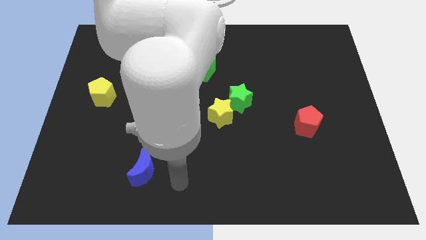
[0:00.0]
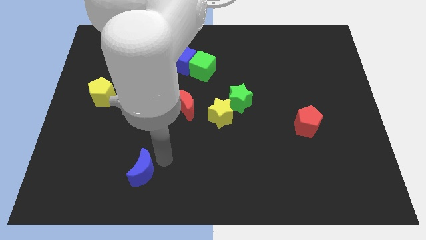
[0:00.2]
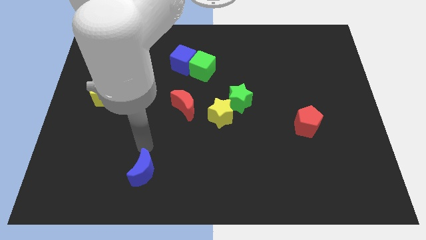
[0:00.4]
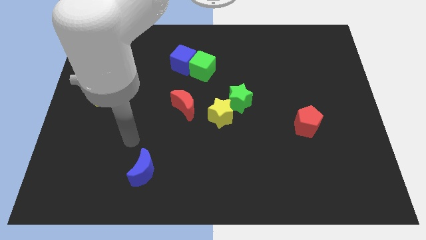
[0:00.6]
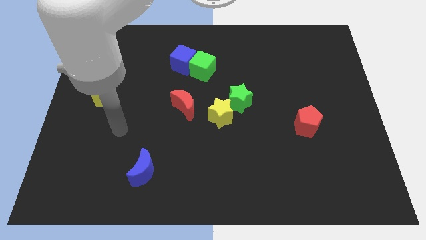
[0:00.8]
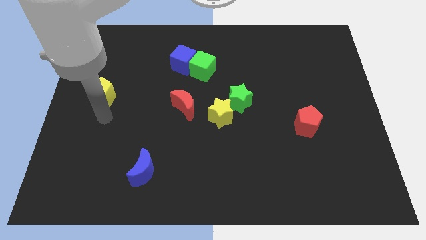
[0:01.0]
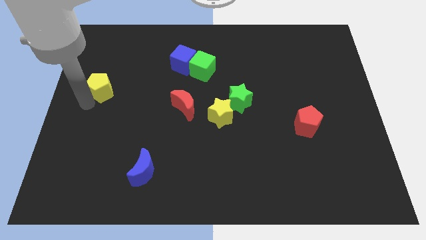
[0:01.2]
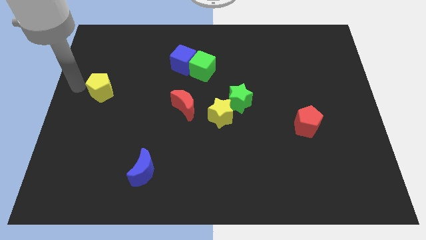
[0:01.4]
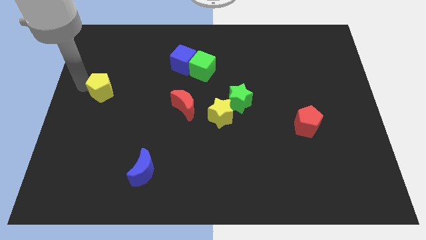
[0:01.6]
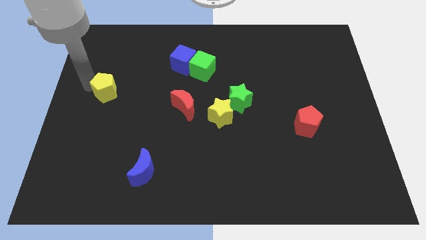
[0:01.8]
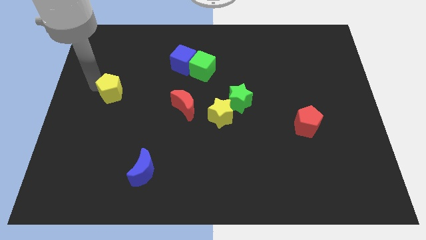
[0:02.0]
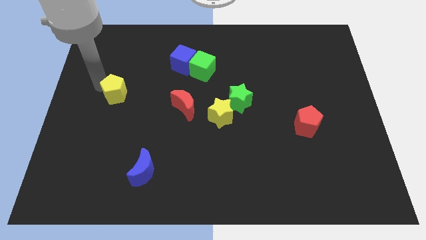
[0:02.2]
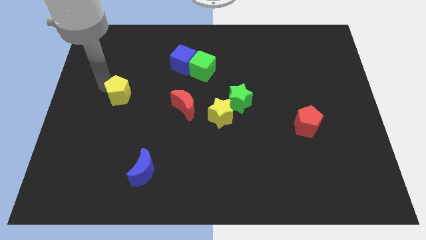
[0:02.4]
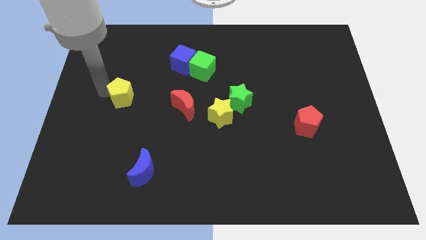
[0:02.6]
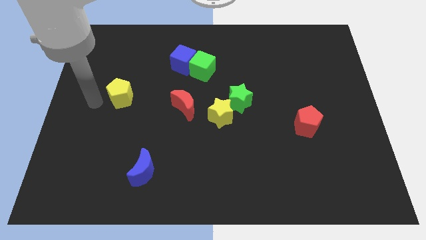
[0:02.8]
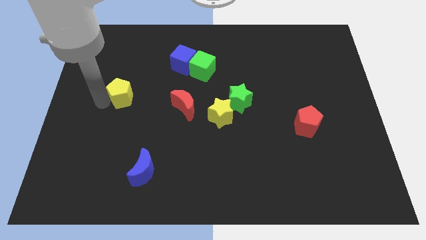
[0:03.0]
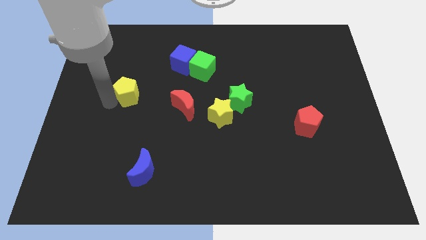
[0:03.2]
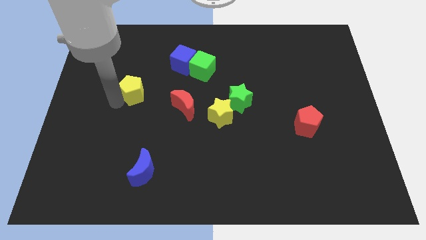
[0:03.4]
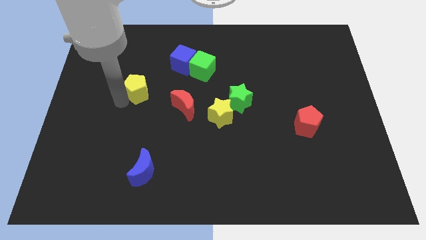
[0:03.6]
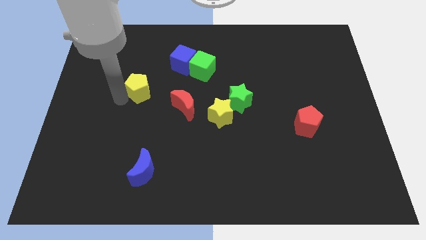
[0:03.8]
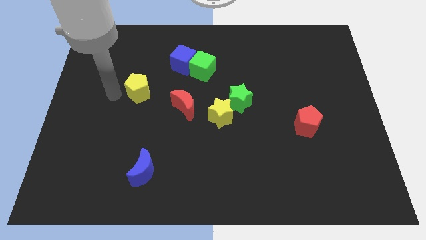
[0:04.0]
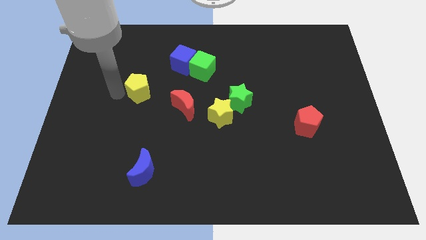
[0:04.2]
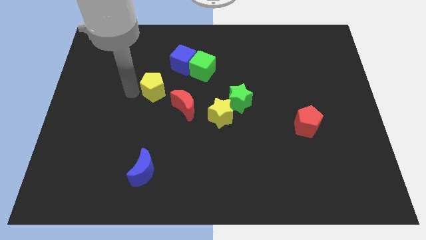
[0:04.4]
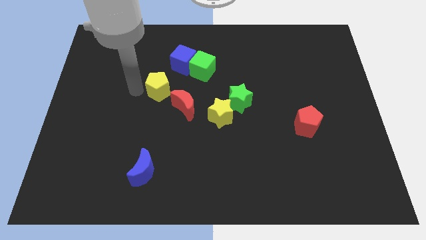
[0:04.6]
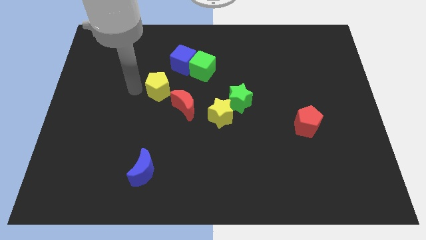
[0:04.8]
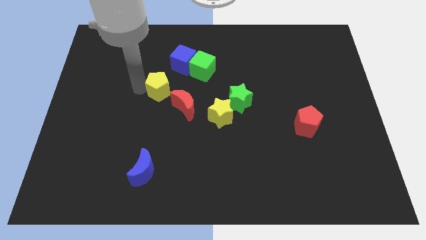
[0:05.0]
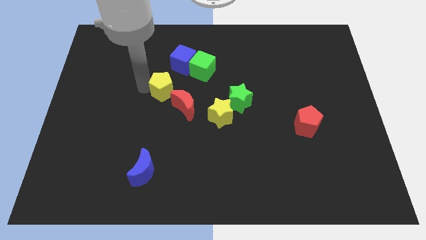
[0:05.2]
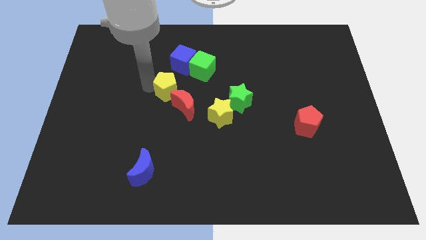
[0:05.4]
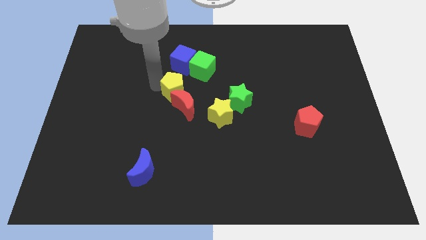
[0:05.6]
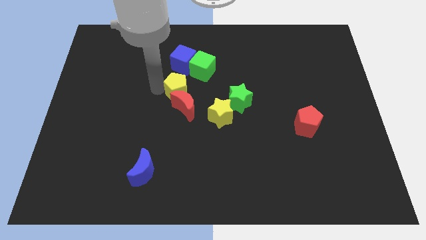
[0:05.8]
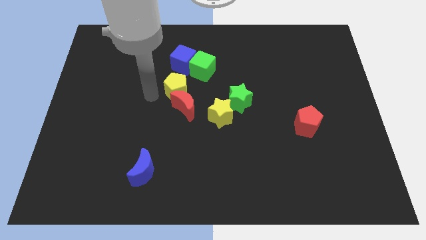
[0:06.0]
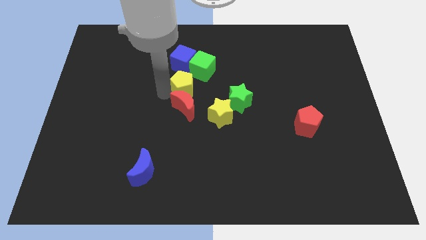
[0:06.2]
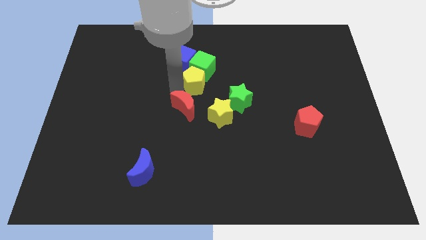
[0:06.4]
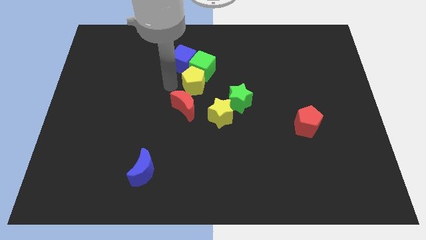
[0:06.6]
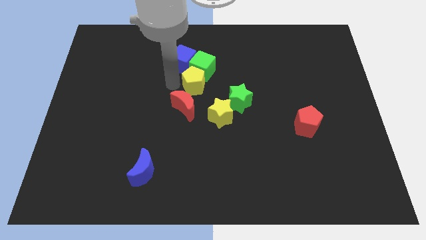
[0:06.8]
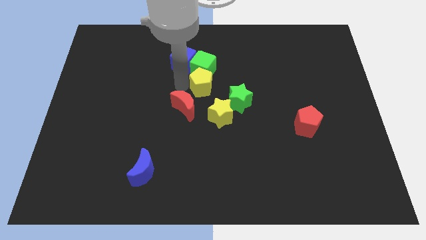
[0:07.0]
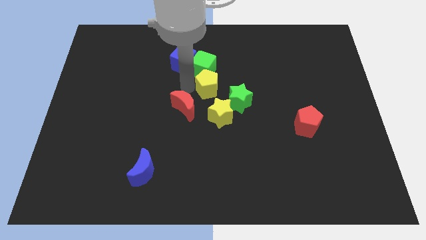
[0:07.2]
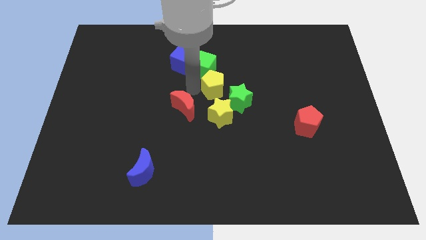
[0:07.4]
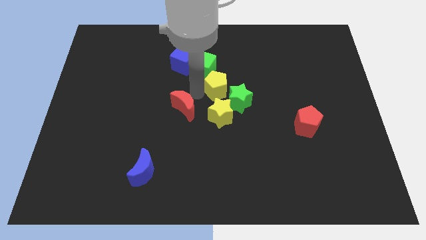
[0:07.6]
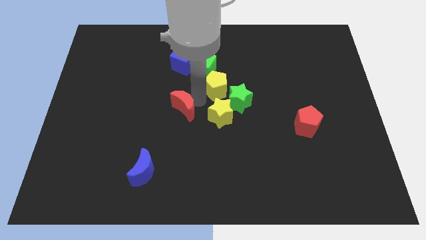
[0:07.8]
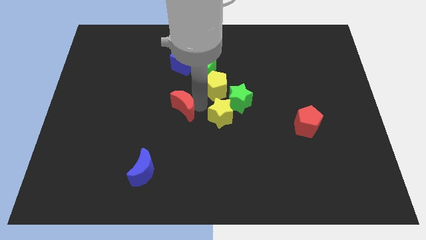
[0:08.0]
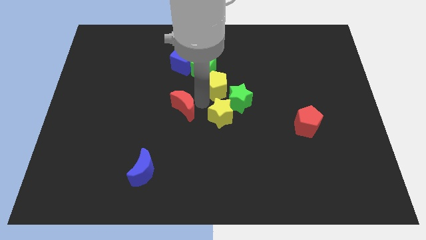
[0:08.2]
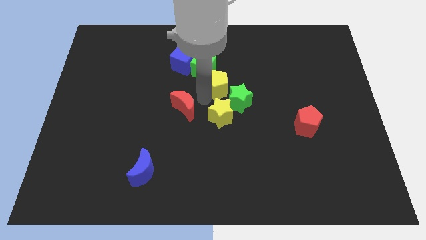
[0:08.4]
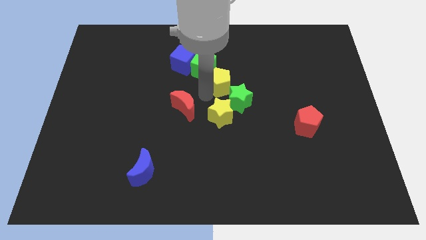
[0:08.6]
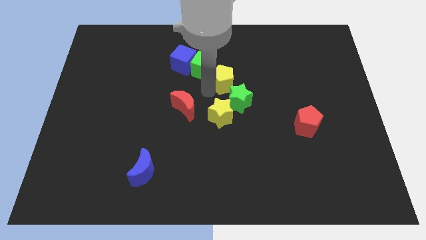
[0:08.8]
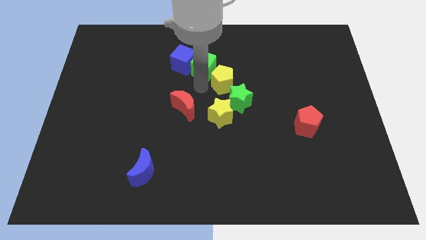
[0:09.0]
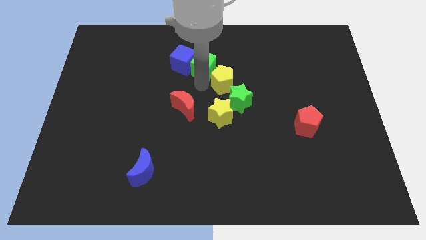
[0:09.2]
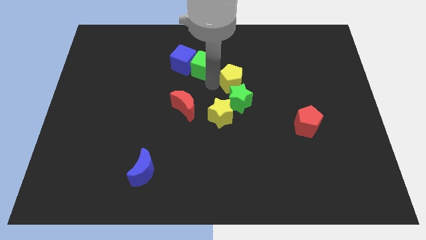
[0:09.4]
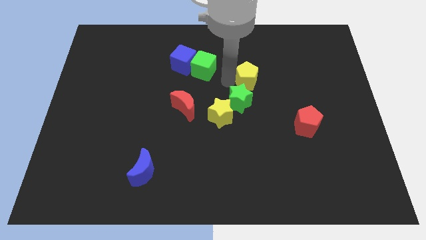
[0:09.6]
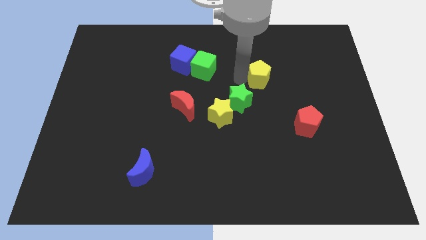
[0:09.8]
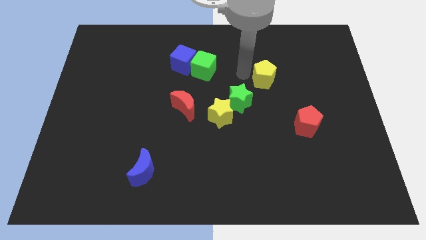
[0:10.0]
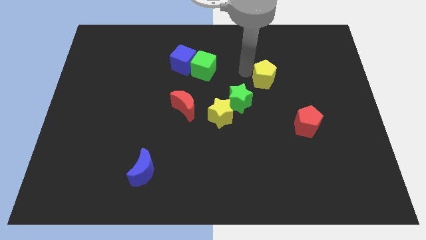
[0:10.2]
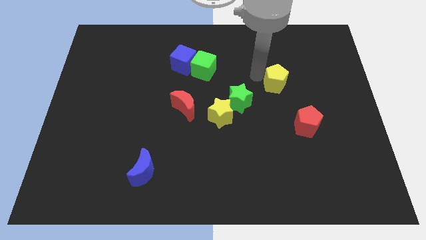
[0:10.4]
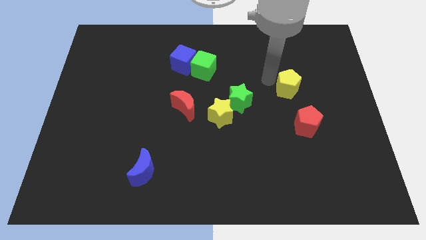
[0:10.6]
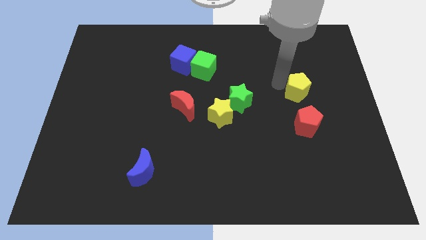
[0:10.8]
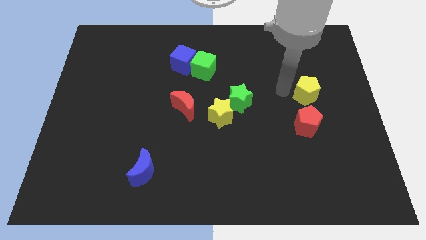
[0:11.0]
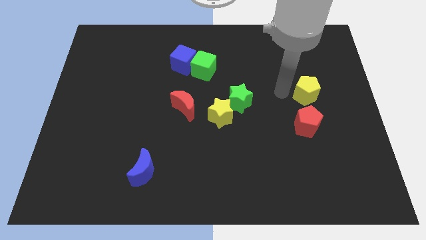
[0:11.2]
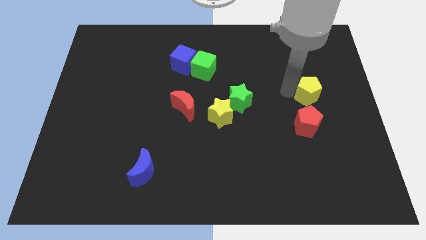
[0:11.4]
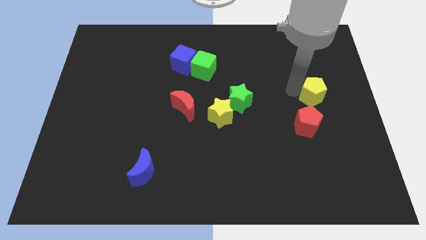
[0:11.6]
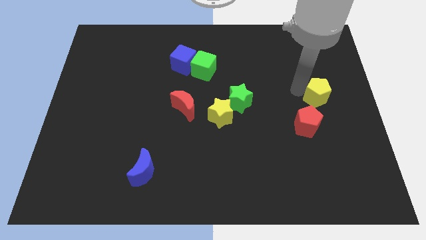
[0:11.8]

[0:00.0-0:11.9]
move the yellow pentagon to the right side

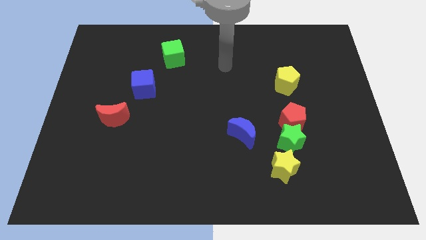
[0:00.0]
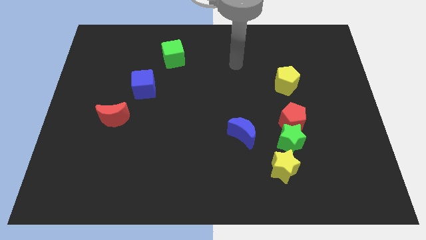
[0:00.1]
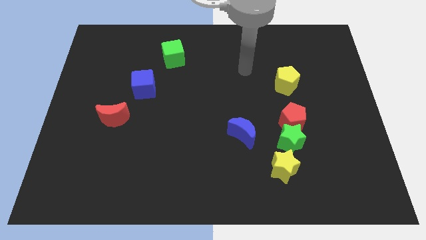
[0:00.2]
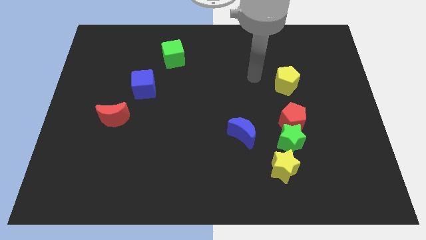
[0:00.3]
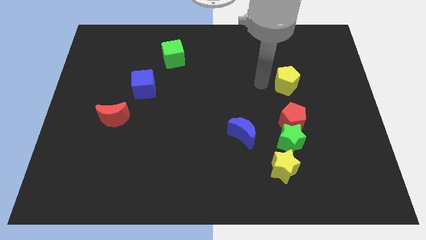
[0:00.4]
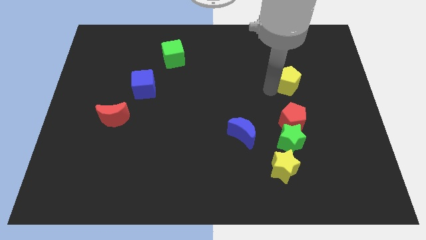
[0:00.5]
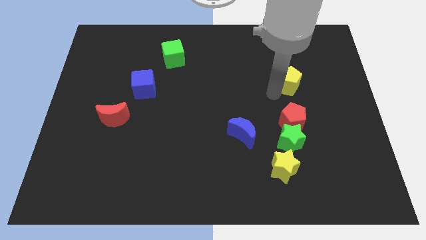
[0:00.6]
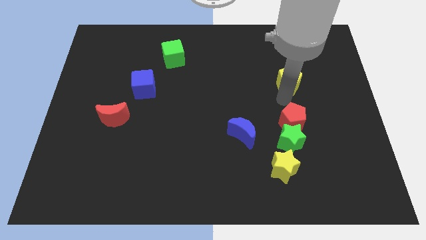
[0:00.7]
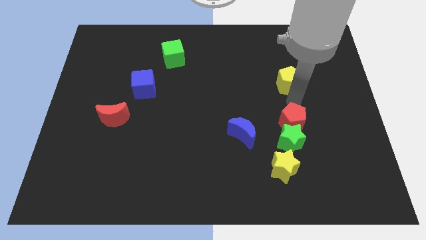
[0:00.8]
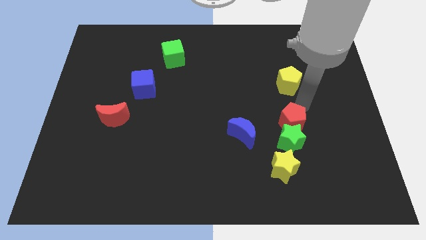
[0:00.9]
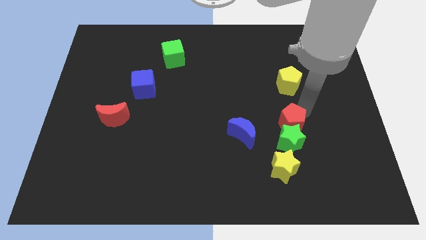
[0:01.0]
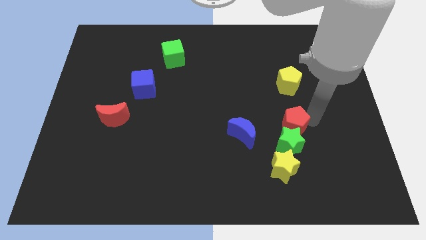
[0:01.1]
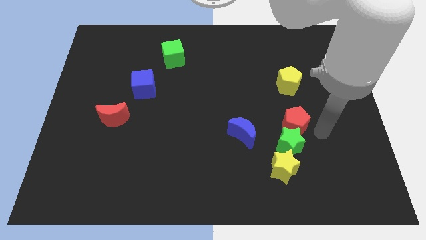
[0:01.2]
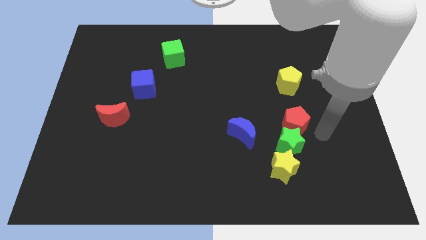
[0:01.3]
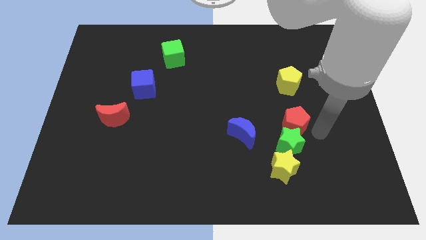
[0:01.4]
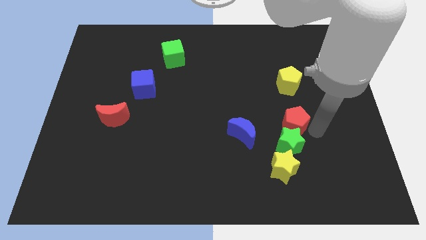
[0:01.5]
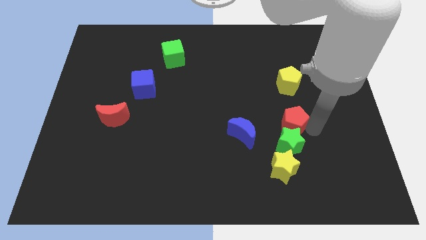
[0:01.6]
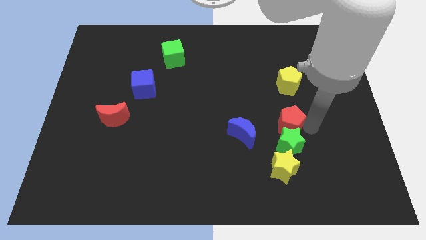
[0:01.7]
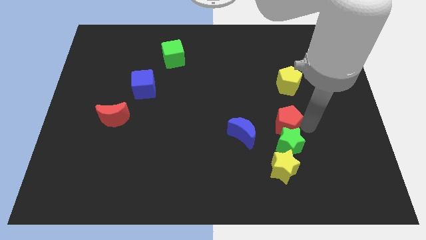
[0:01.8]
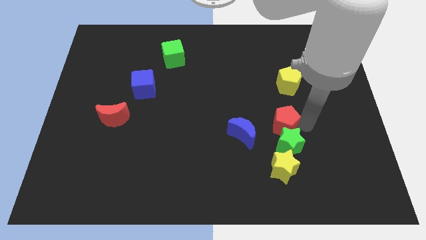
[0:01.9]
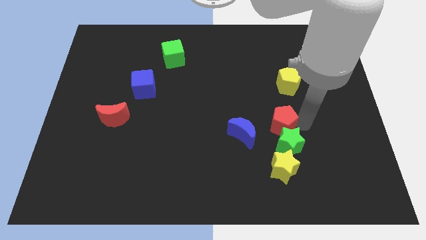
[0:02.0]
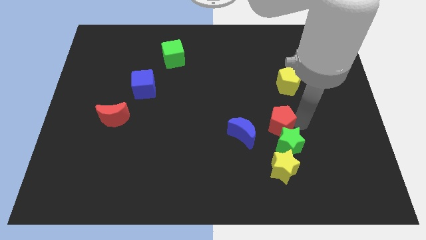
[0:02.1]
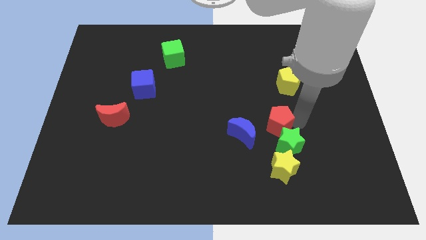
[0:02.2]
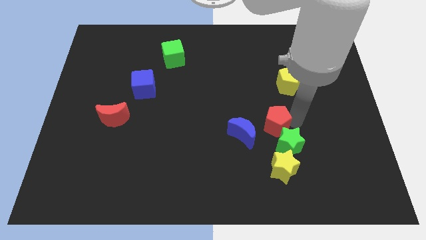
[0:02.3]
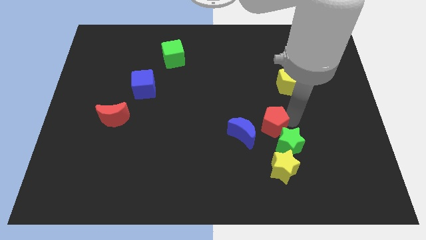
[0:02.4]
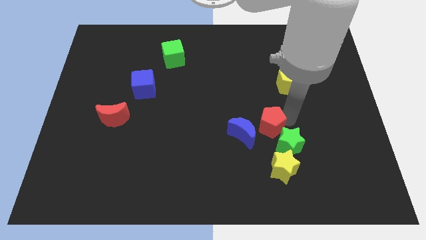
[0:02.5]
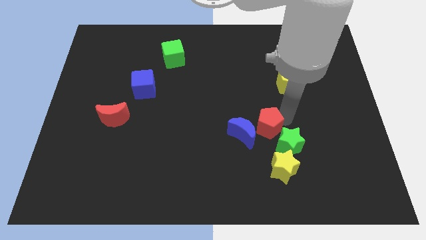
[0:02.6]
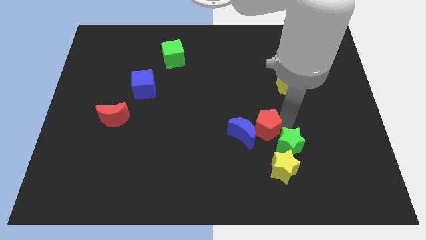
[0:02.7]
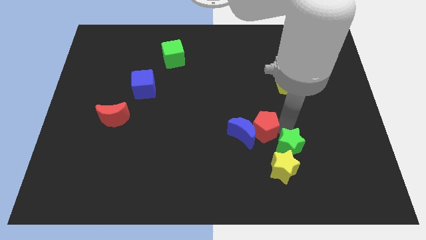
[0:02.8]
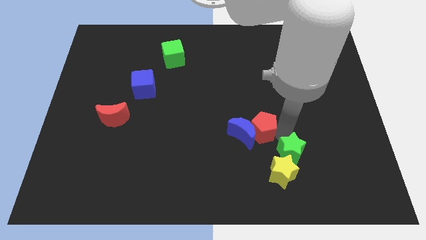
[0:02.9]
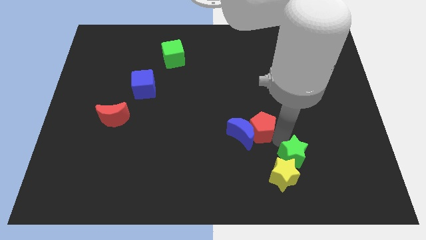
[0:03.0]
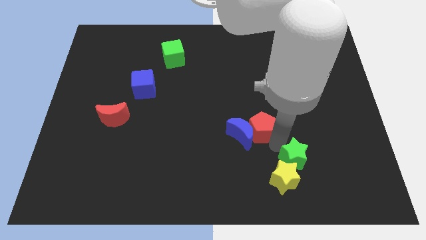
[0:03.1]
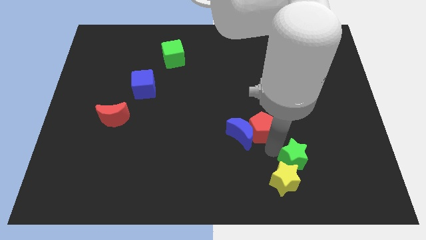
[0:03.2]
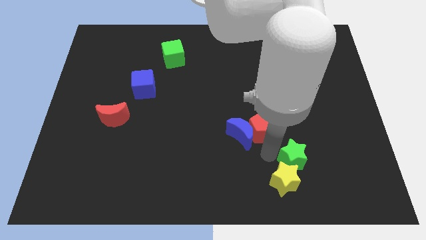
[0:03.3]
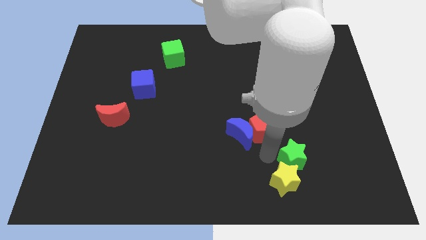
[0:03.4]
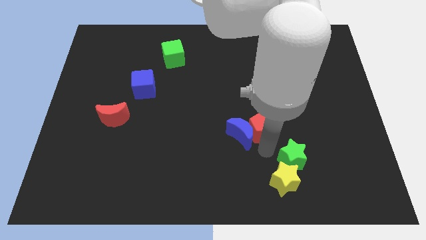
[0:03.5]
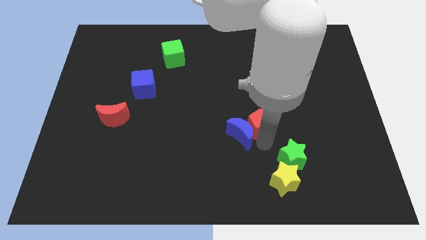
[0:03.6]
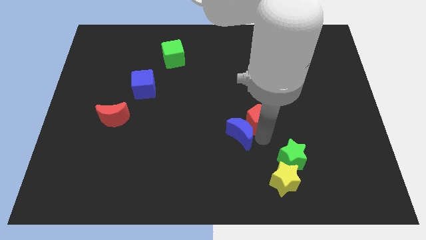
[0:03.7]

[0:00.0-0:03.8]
put the red pentagon to the middle
